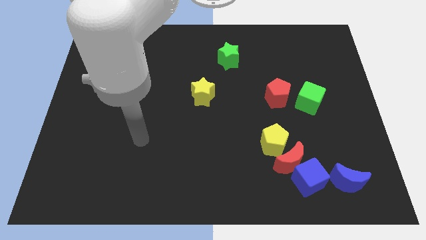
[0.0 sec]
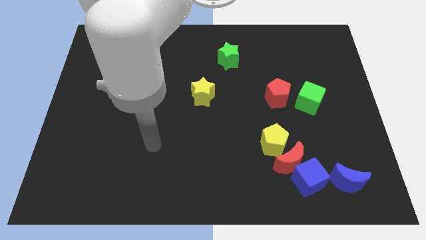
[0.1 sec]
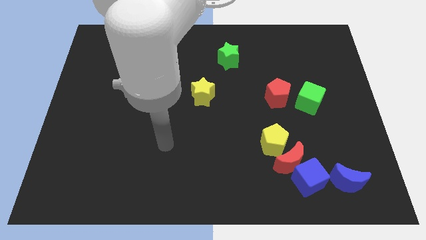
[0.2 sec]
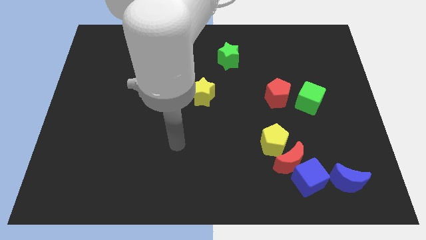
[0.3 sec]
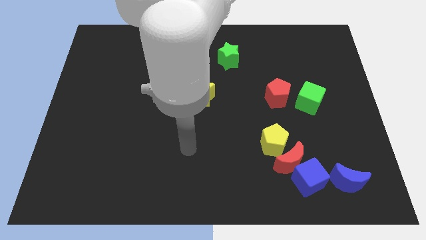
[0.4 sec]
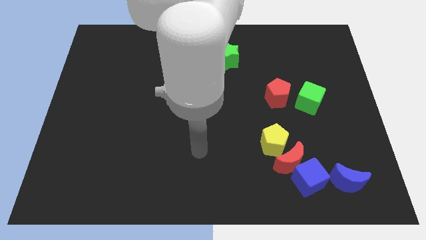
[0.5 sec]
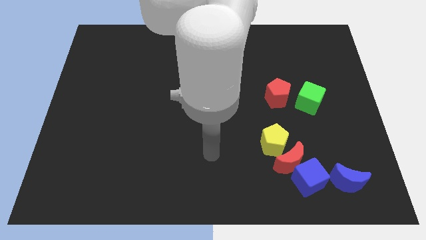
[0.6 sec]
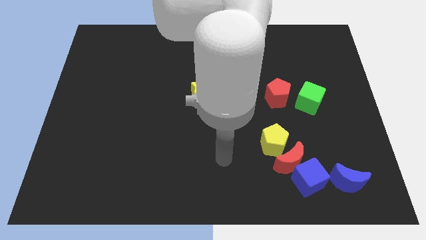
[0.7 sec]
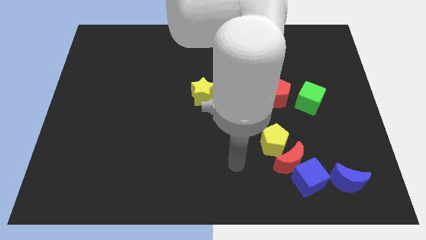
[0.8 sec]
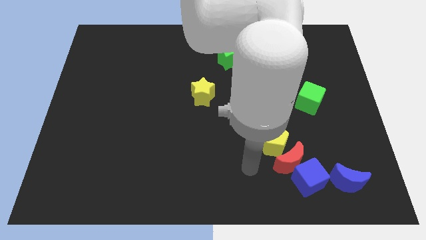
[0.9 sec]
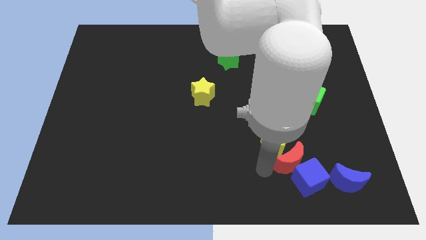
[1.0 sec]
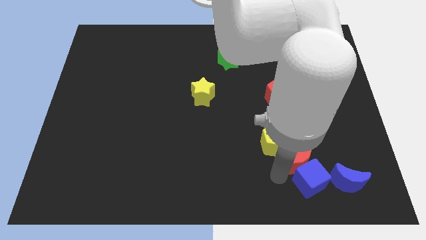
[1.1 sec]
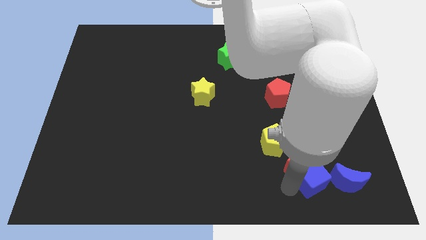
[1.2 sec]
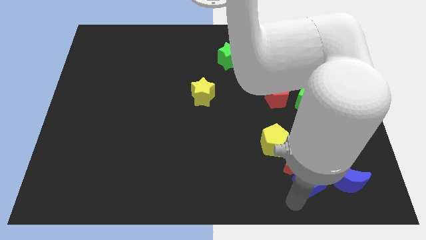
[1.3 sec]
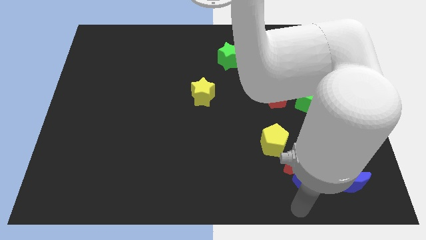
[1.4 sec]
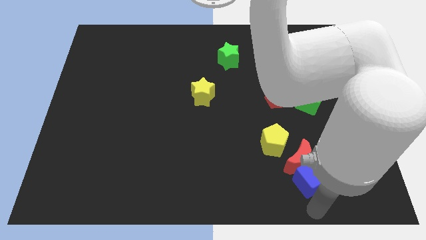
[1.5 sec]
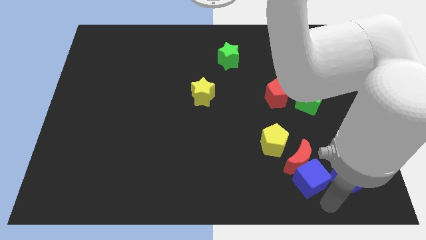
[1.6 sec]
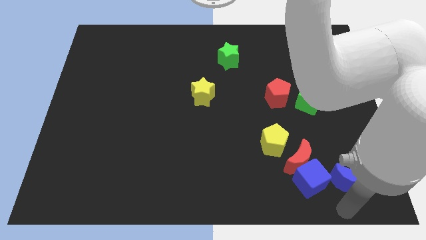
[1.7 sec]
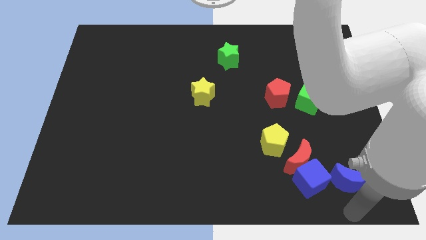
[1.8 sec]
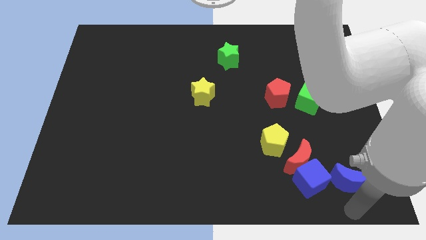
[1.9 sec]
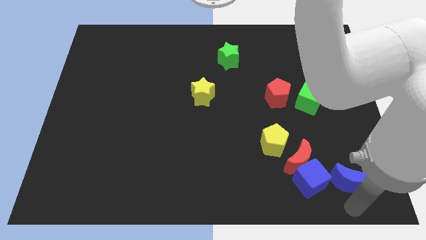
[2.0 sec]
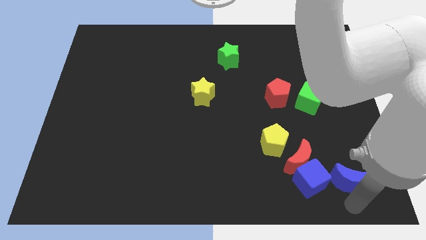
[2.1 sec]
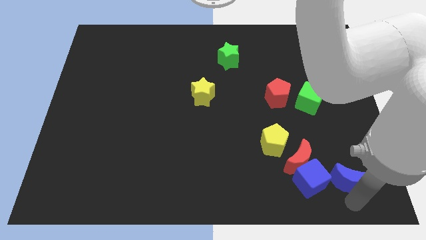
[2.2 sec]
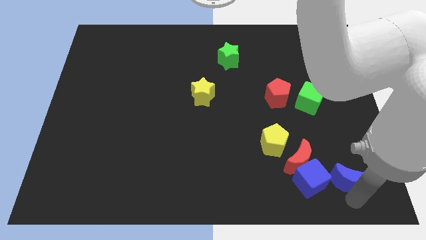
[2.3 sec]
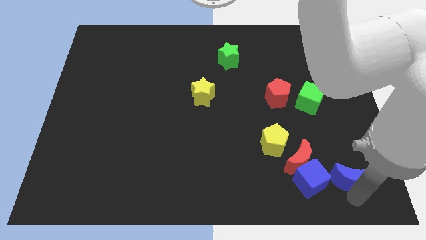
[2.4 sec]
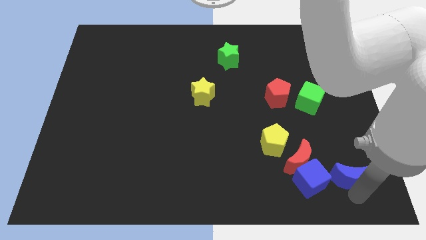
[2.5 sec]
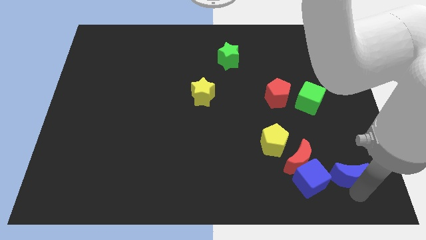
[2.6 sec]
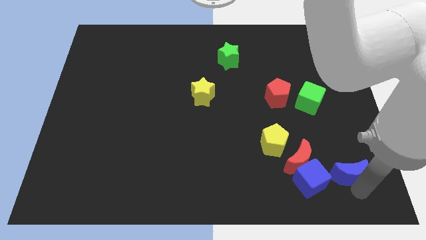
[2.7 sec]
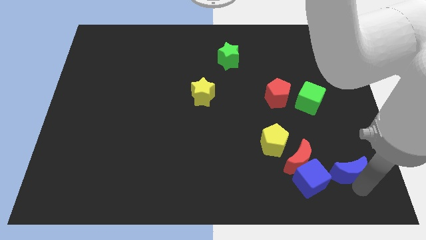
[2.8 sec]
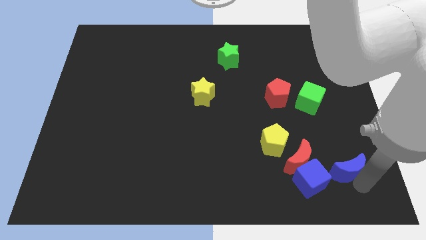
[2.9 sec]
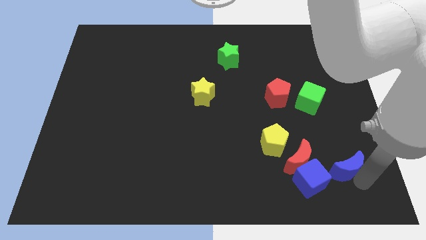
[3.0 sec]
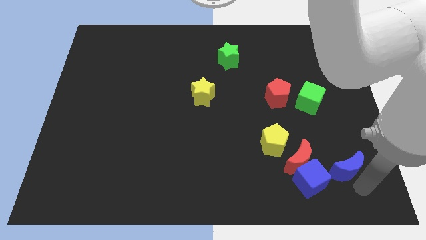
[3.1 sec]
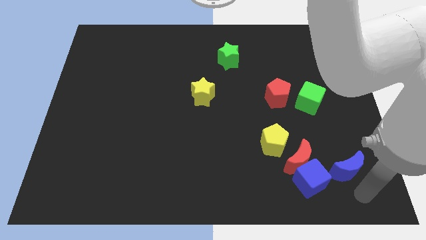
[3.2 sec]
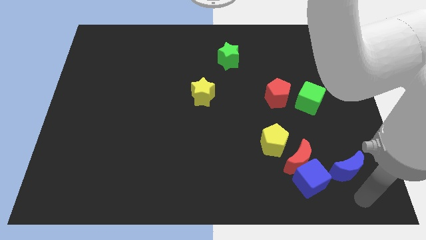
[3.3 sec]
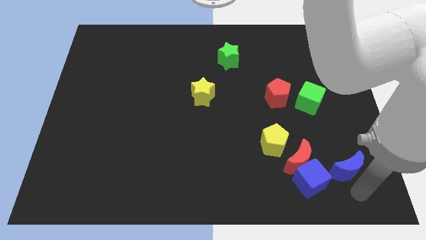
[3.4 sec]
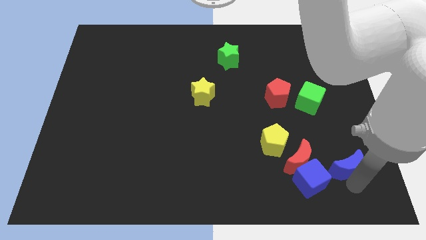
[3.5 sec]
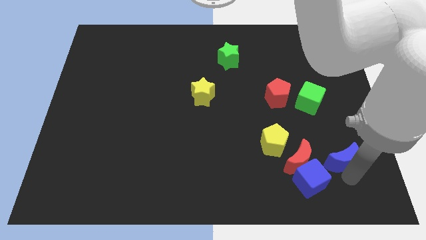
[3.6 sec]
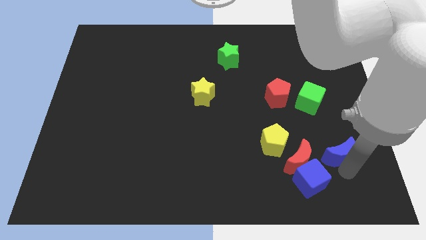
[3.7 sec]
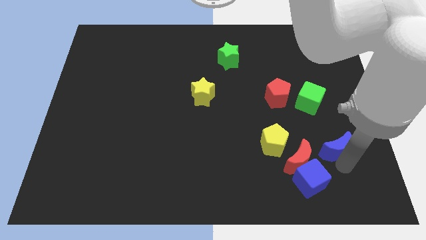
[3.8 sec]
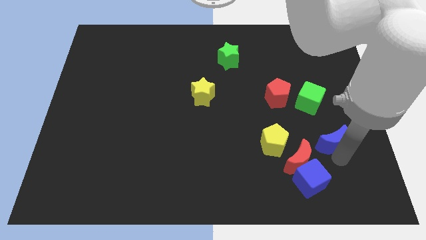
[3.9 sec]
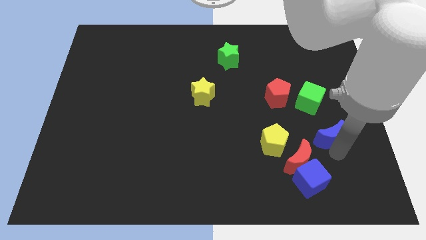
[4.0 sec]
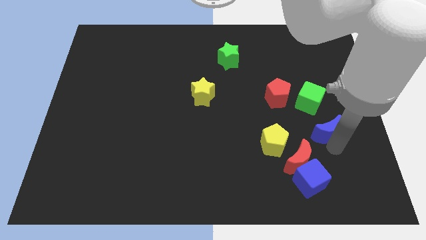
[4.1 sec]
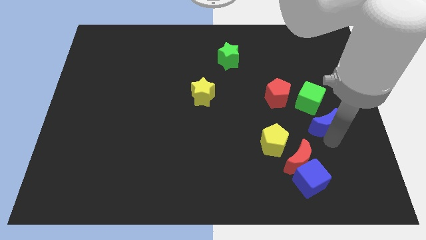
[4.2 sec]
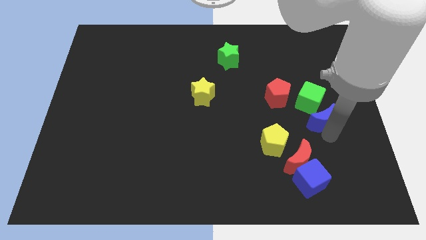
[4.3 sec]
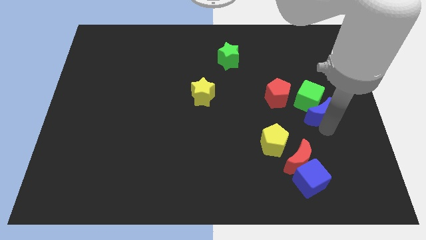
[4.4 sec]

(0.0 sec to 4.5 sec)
move the blue moon towards the green cube

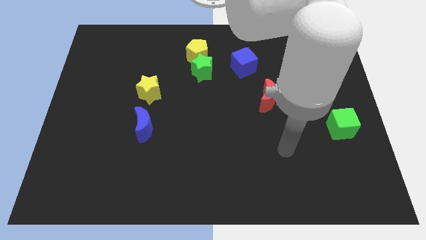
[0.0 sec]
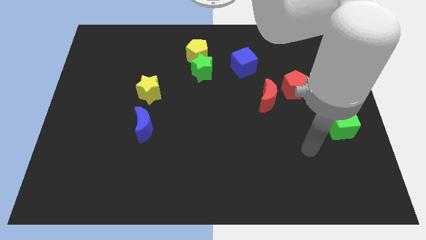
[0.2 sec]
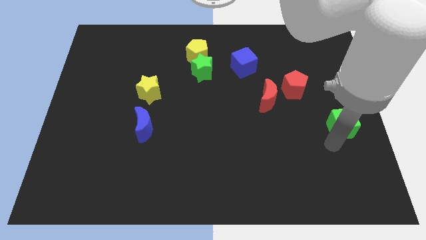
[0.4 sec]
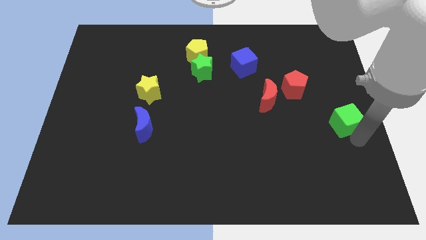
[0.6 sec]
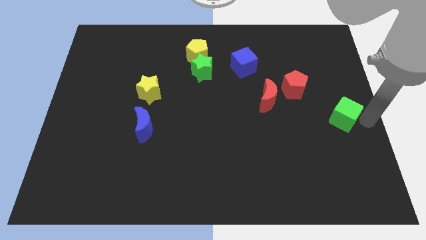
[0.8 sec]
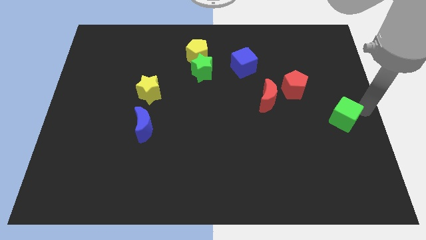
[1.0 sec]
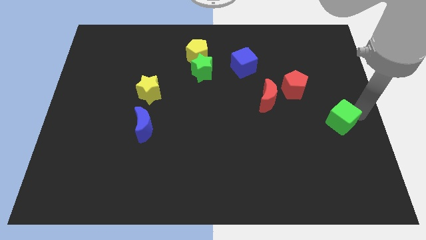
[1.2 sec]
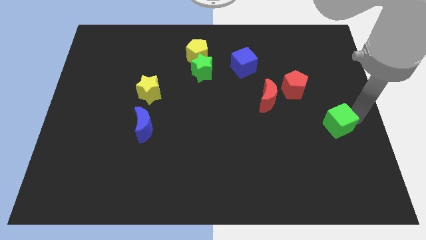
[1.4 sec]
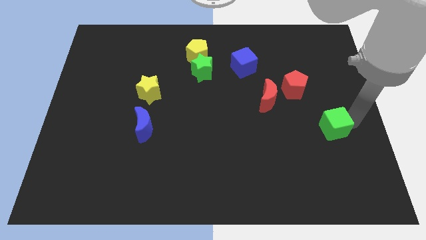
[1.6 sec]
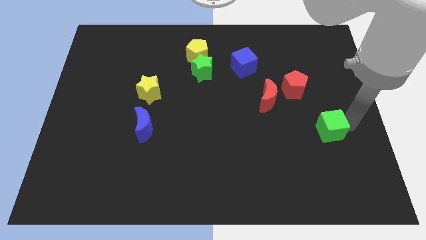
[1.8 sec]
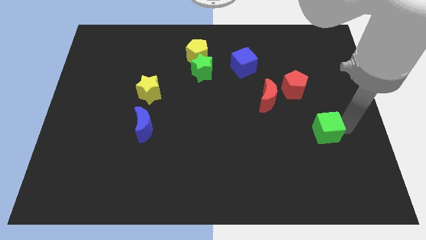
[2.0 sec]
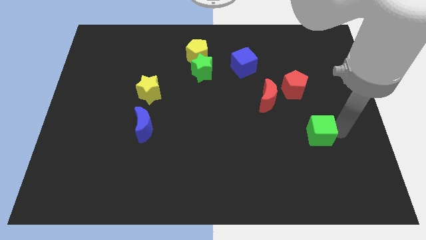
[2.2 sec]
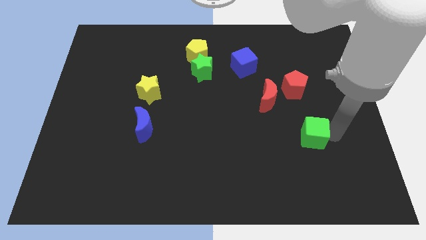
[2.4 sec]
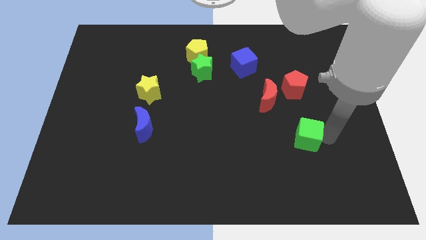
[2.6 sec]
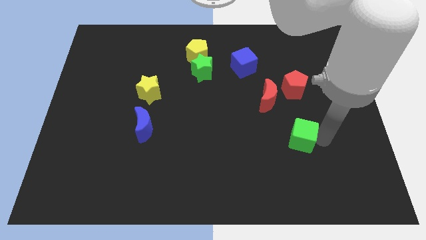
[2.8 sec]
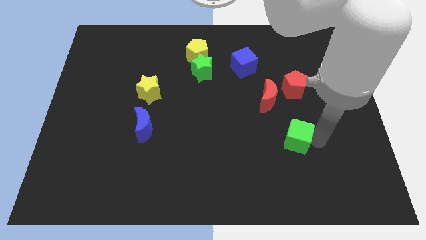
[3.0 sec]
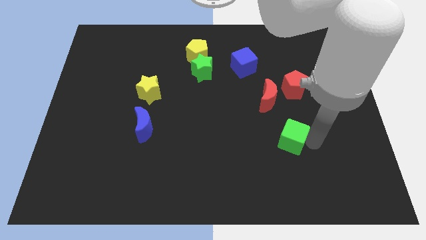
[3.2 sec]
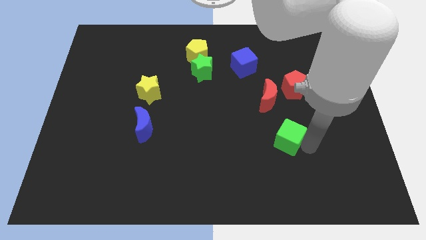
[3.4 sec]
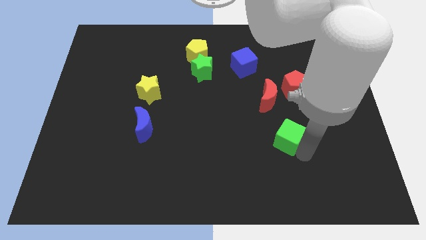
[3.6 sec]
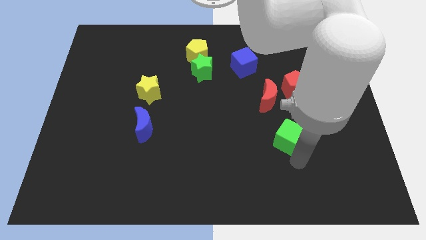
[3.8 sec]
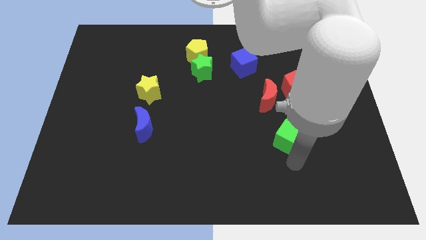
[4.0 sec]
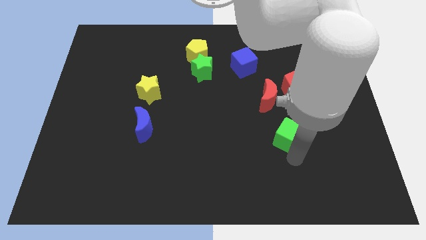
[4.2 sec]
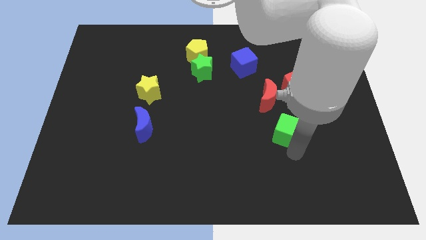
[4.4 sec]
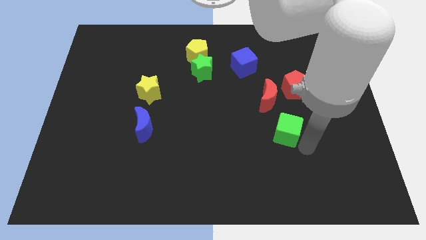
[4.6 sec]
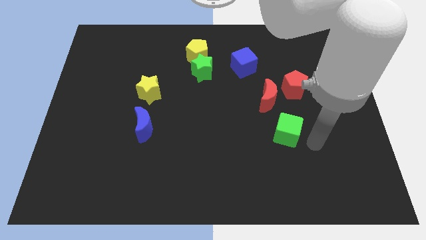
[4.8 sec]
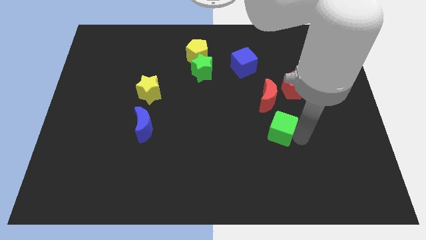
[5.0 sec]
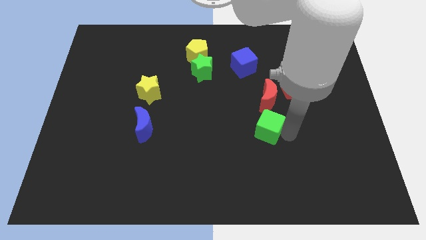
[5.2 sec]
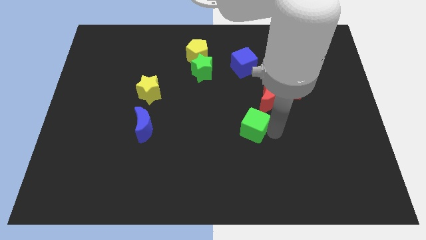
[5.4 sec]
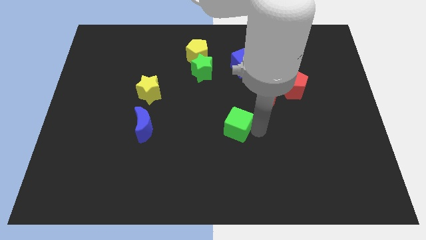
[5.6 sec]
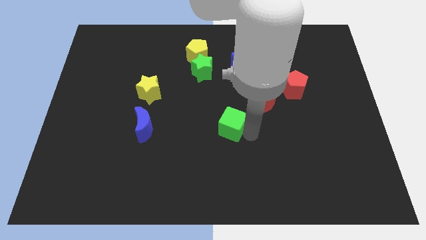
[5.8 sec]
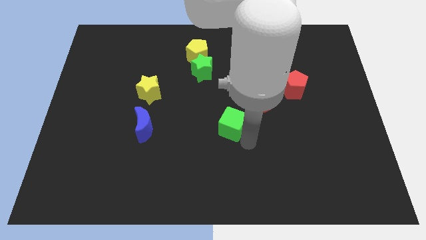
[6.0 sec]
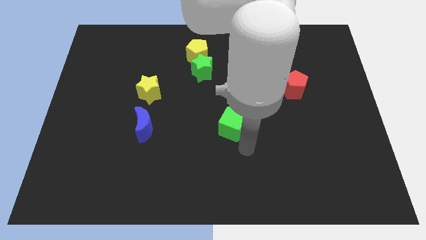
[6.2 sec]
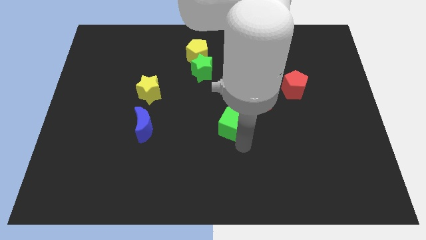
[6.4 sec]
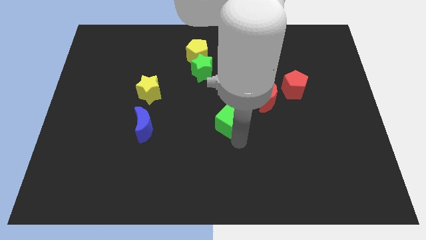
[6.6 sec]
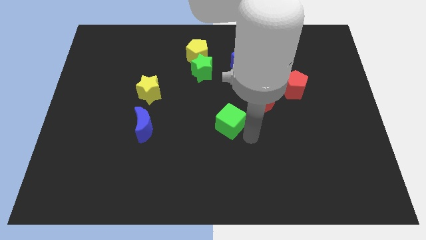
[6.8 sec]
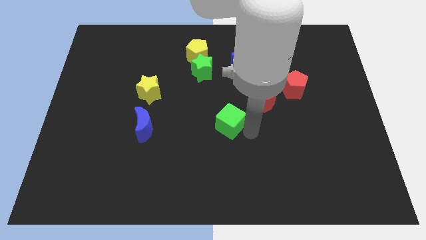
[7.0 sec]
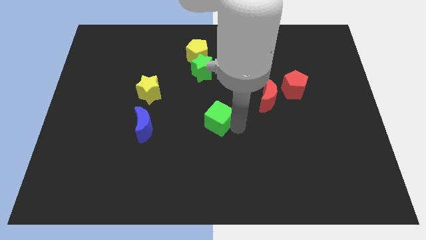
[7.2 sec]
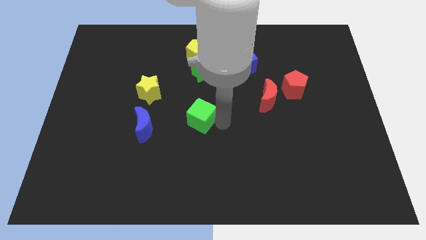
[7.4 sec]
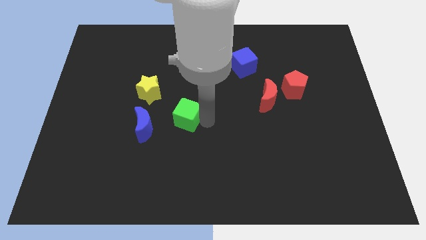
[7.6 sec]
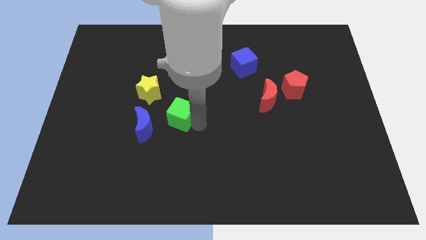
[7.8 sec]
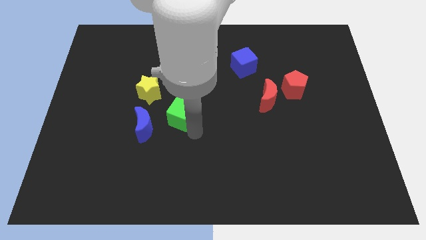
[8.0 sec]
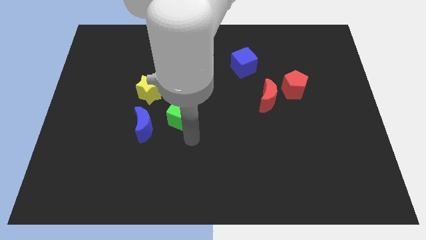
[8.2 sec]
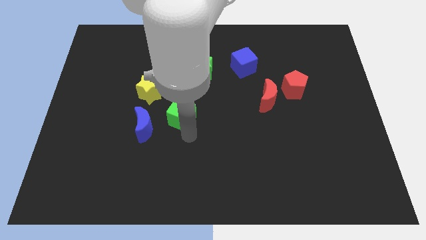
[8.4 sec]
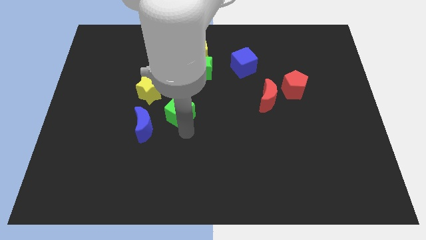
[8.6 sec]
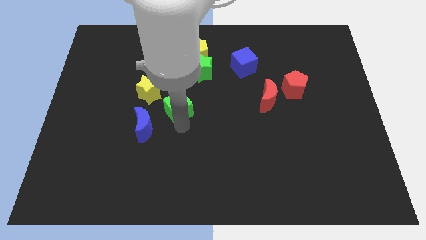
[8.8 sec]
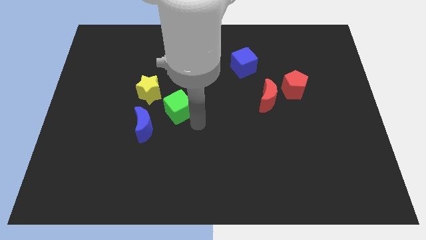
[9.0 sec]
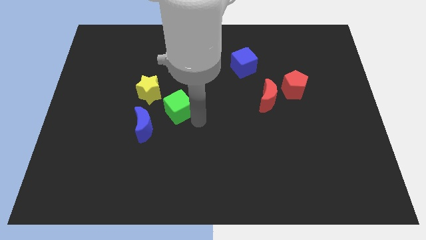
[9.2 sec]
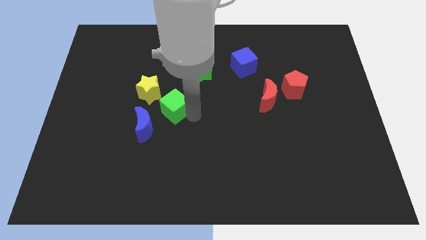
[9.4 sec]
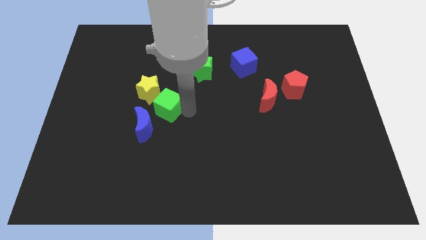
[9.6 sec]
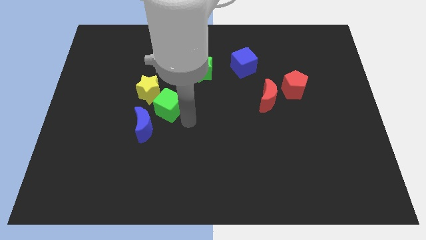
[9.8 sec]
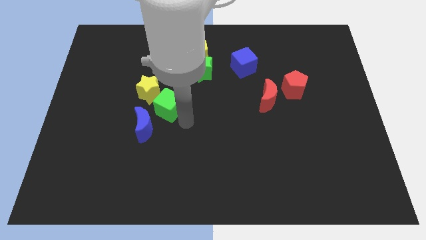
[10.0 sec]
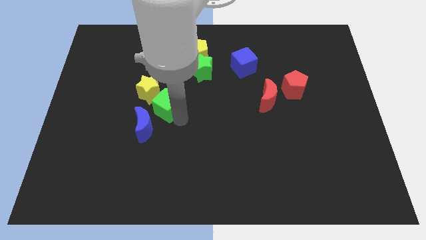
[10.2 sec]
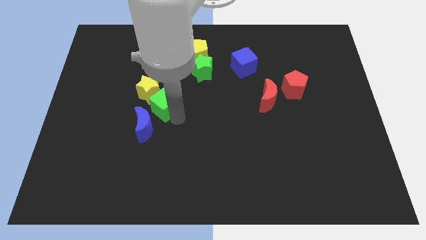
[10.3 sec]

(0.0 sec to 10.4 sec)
slide the green cube towards the yellow star
